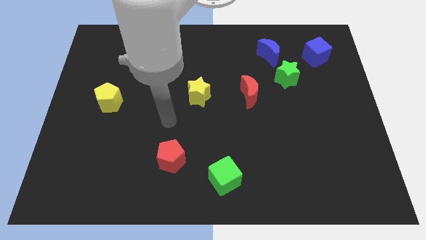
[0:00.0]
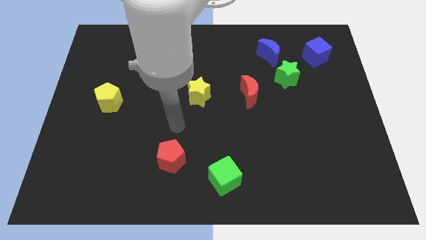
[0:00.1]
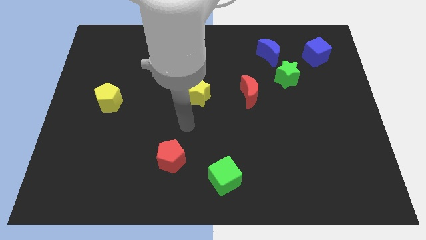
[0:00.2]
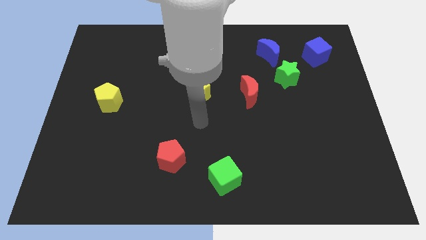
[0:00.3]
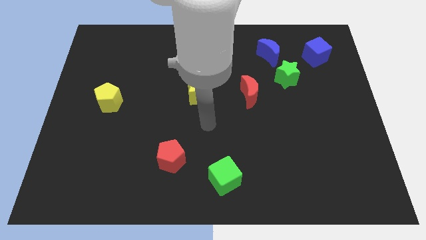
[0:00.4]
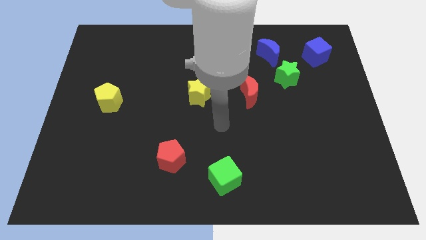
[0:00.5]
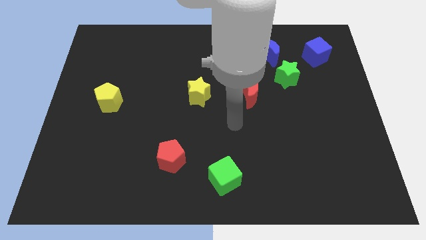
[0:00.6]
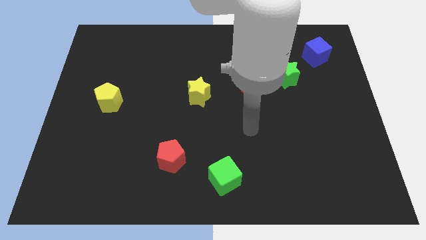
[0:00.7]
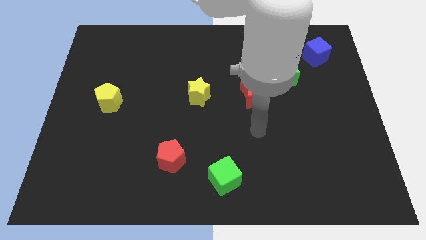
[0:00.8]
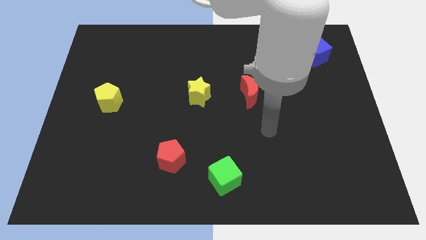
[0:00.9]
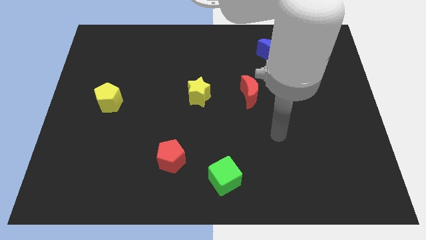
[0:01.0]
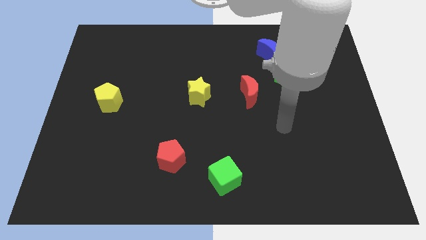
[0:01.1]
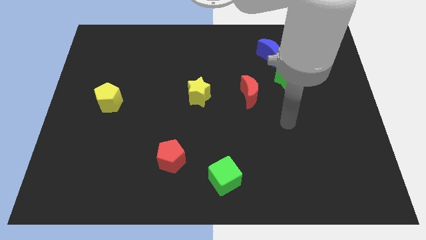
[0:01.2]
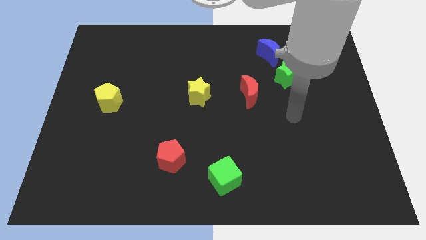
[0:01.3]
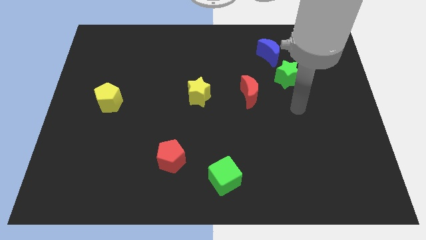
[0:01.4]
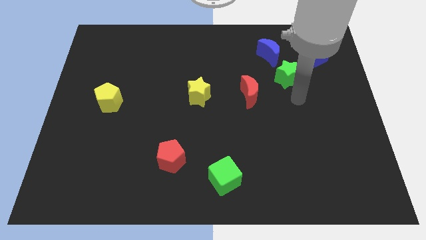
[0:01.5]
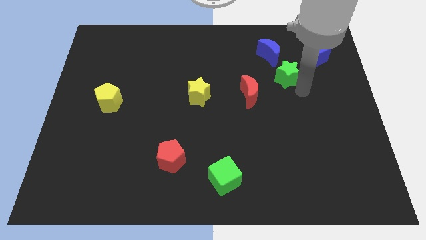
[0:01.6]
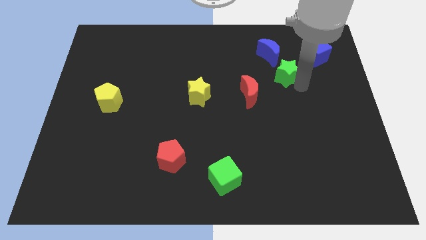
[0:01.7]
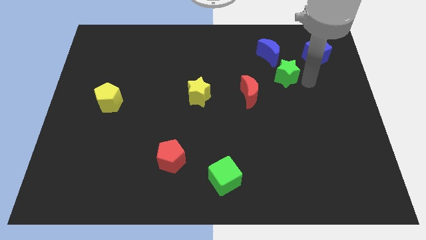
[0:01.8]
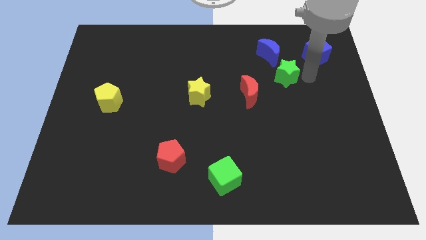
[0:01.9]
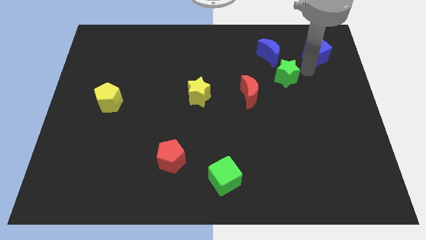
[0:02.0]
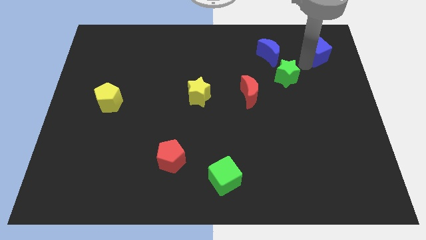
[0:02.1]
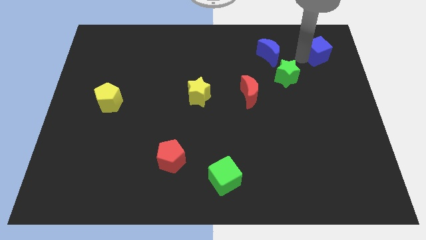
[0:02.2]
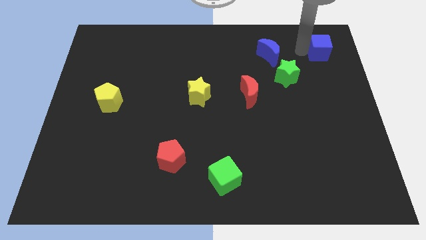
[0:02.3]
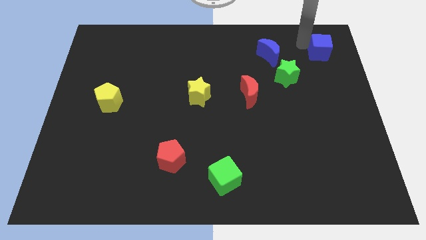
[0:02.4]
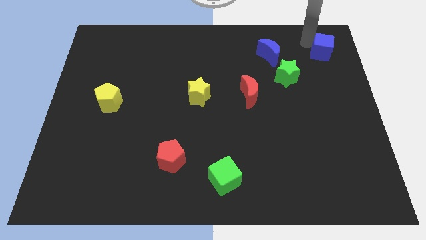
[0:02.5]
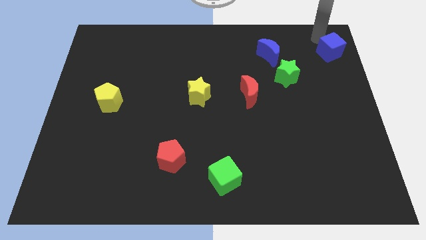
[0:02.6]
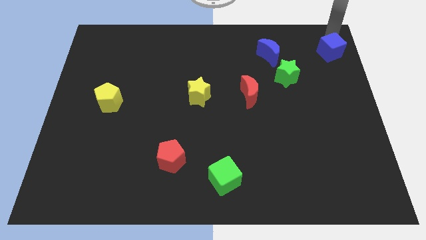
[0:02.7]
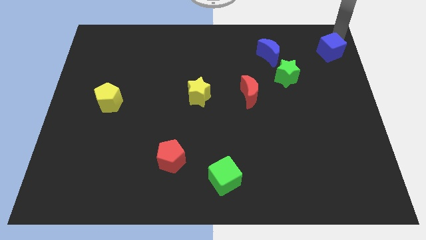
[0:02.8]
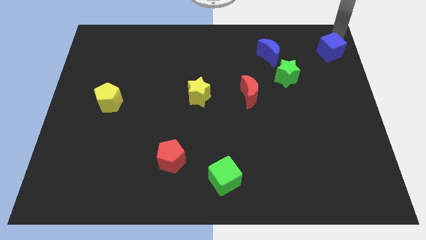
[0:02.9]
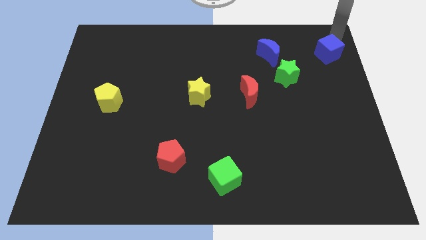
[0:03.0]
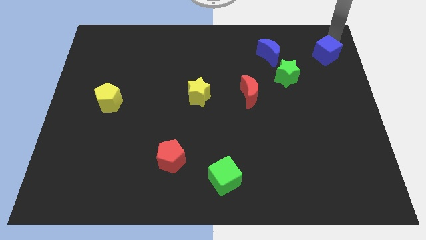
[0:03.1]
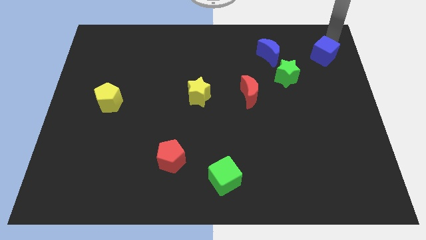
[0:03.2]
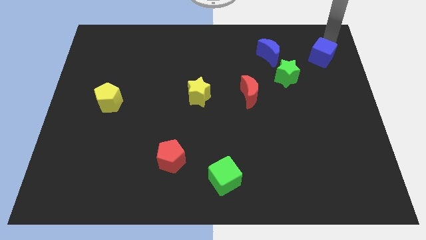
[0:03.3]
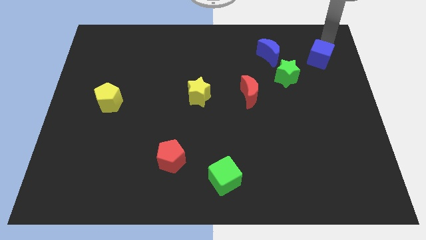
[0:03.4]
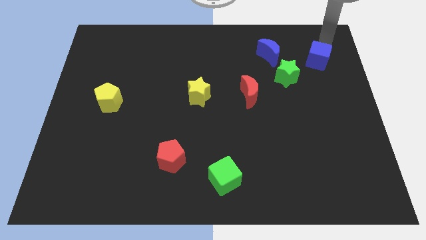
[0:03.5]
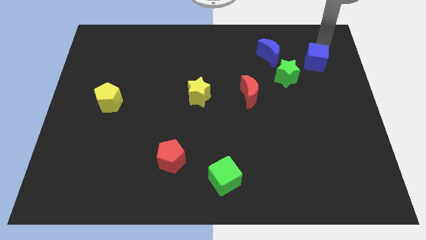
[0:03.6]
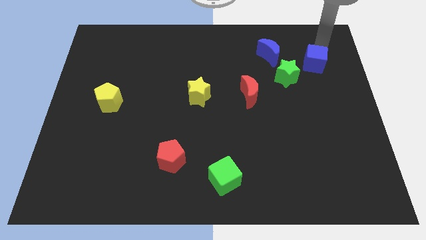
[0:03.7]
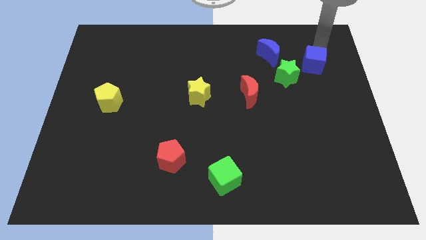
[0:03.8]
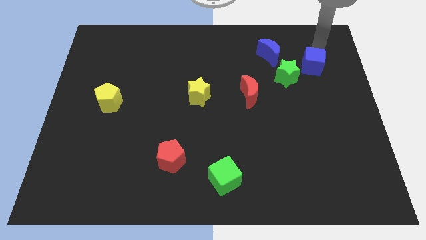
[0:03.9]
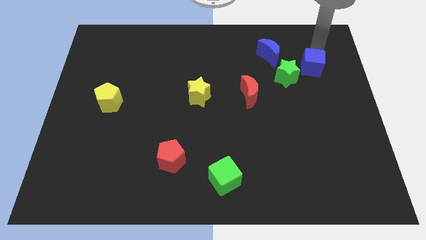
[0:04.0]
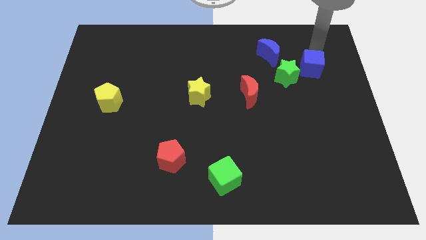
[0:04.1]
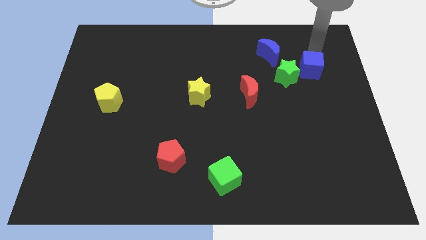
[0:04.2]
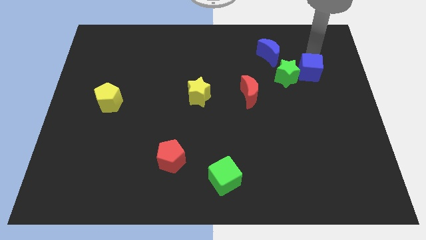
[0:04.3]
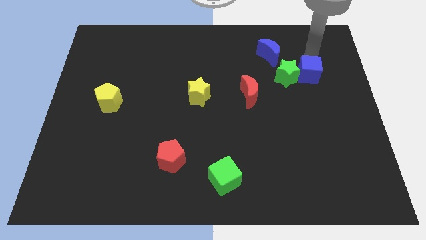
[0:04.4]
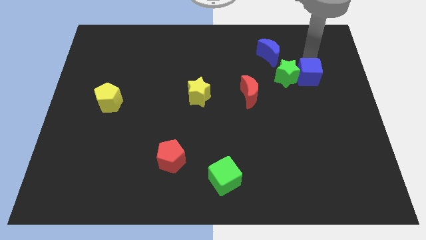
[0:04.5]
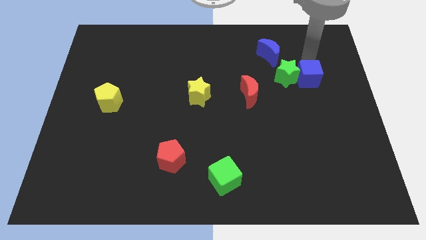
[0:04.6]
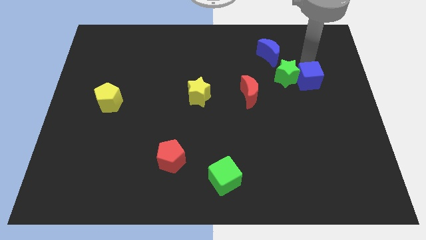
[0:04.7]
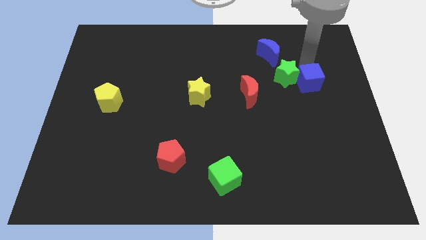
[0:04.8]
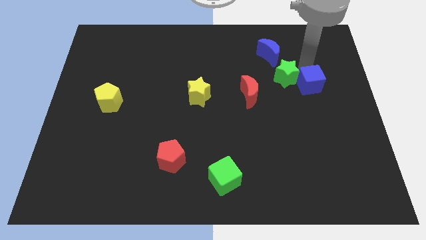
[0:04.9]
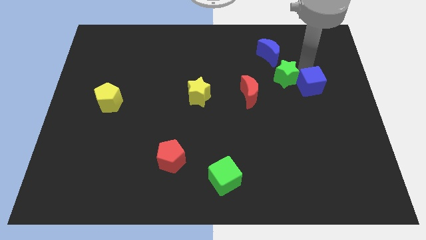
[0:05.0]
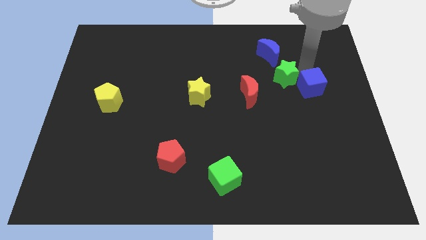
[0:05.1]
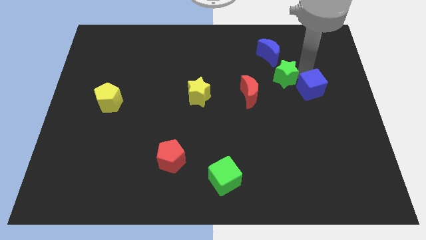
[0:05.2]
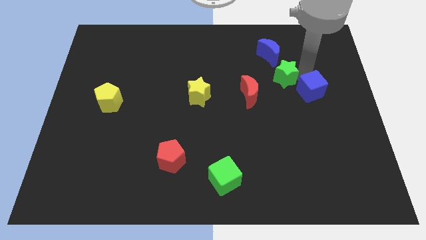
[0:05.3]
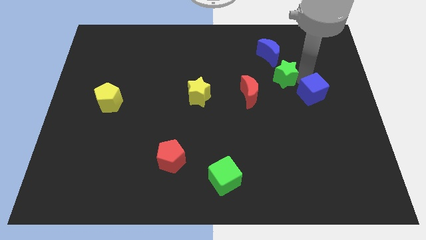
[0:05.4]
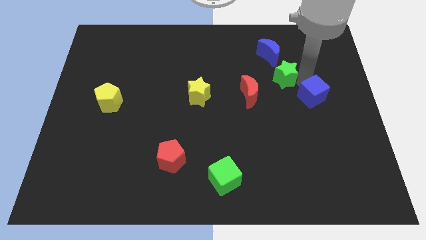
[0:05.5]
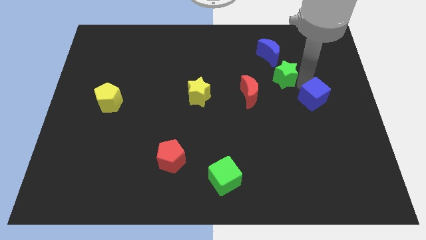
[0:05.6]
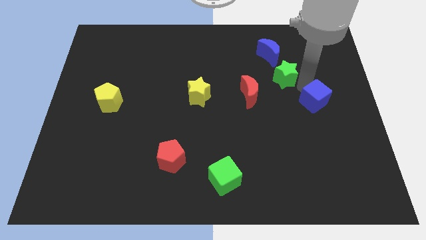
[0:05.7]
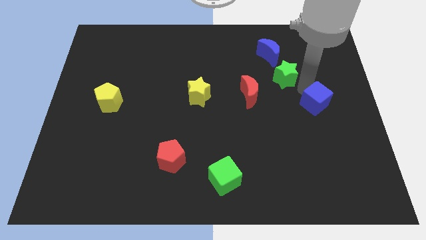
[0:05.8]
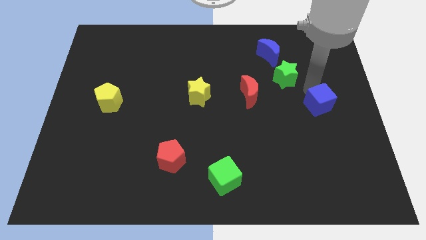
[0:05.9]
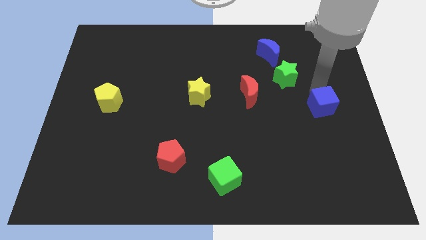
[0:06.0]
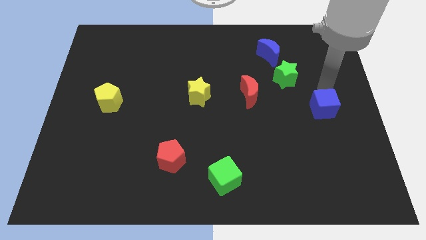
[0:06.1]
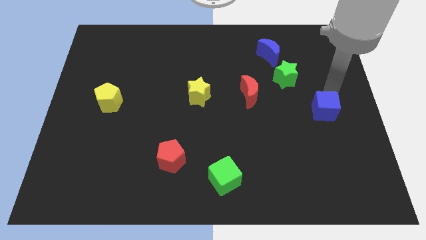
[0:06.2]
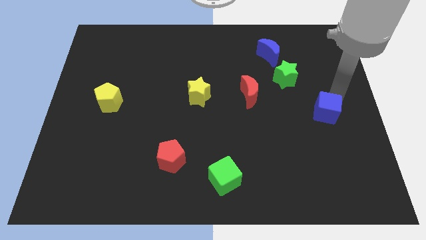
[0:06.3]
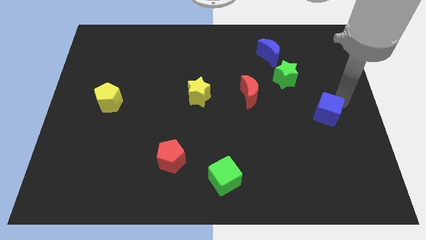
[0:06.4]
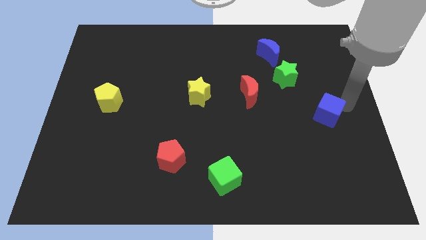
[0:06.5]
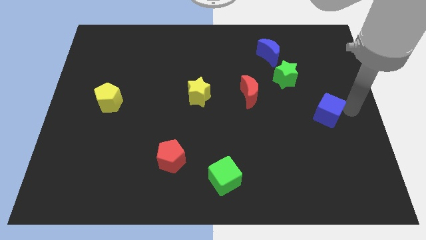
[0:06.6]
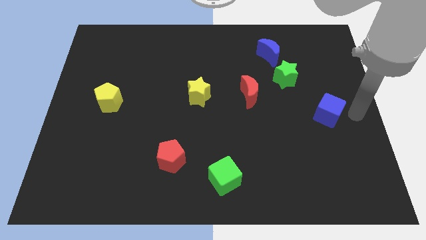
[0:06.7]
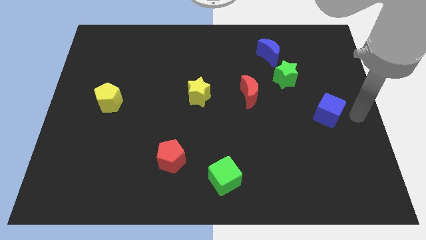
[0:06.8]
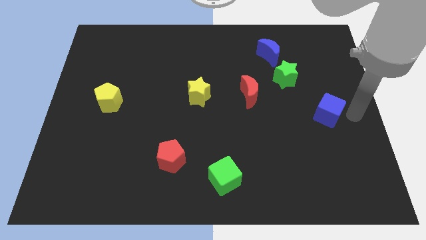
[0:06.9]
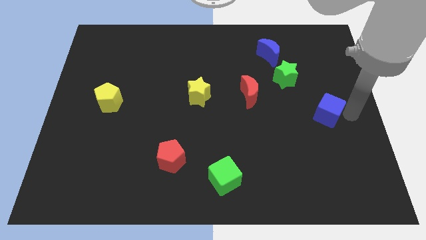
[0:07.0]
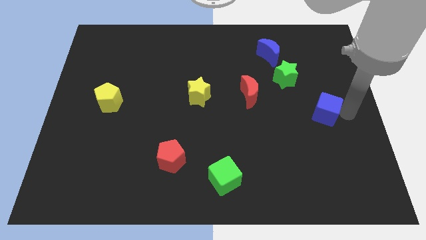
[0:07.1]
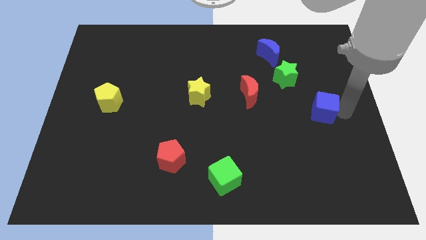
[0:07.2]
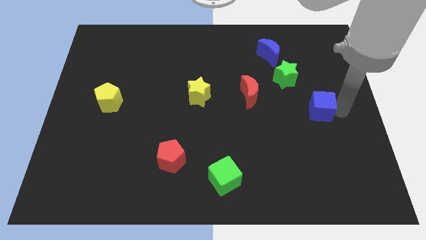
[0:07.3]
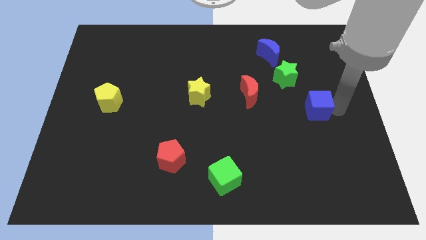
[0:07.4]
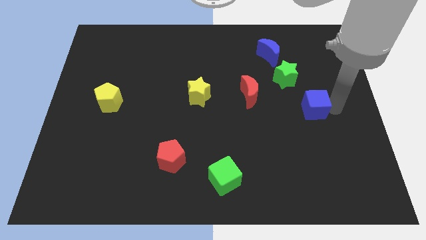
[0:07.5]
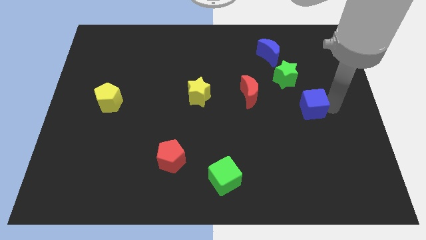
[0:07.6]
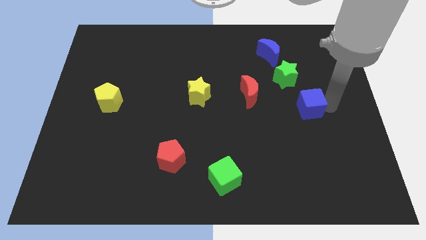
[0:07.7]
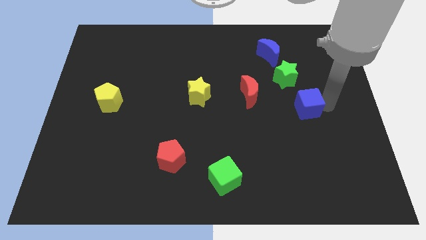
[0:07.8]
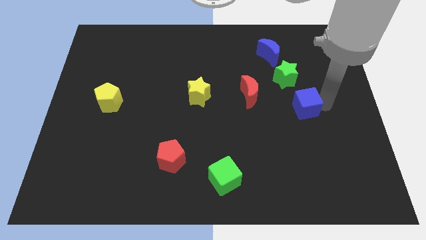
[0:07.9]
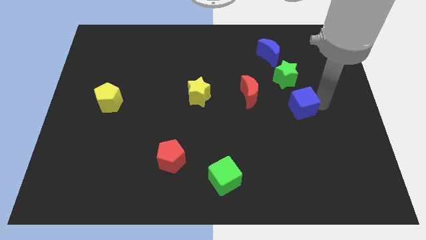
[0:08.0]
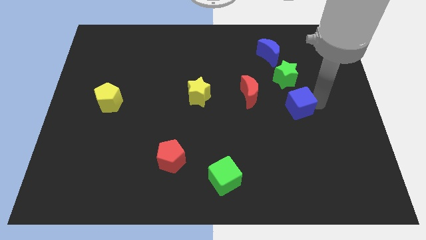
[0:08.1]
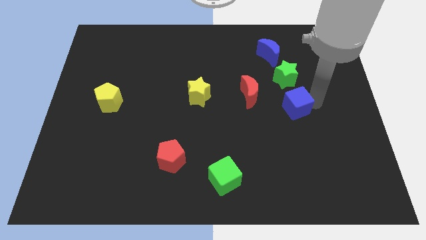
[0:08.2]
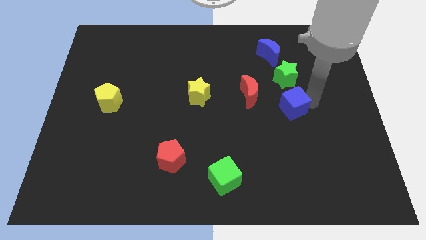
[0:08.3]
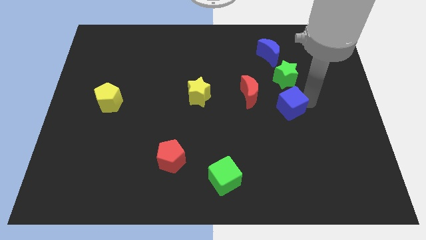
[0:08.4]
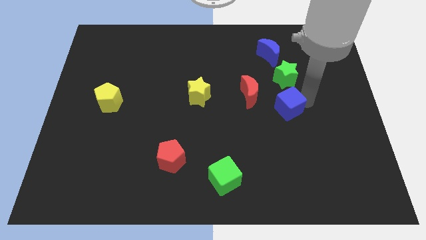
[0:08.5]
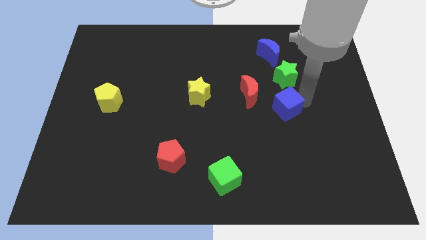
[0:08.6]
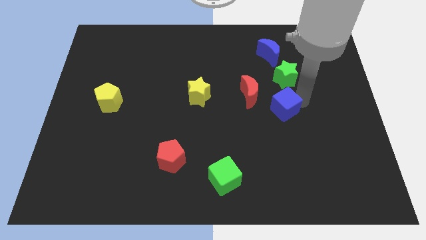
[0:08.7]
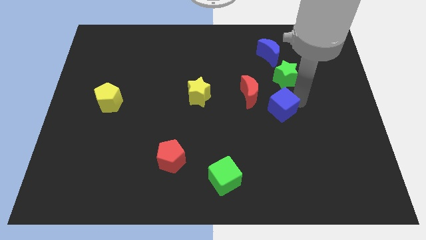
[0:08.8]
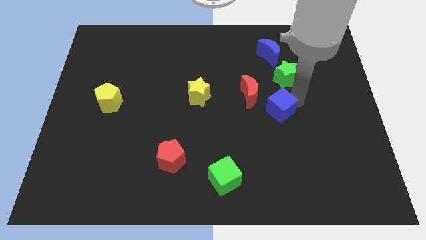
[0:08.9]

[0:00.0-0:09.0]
slide the blue cube downwards and to the left
